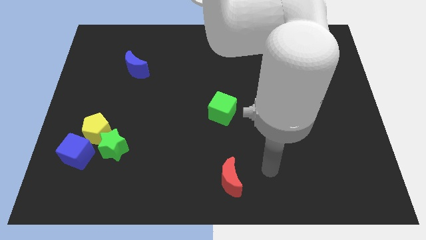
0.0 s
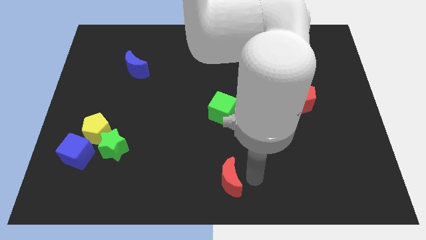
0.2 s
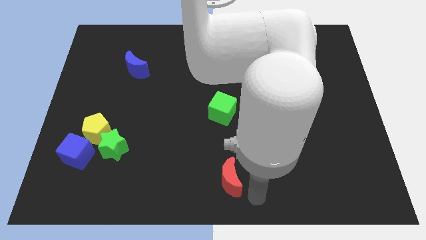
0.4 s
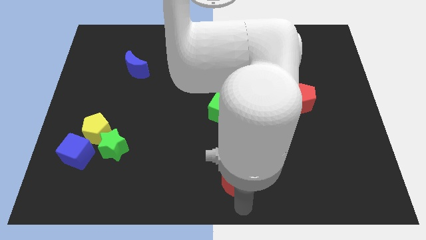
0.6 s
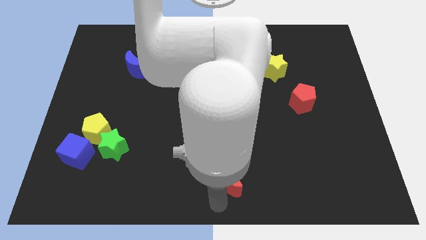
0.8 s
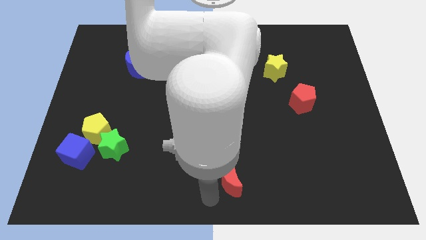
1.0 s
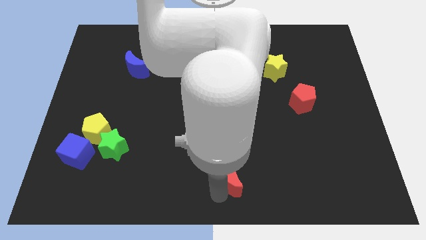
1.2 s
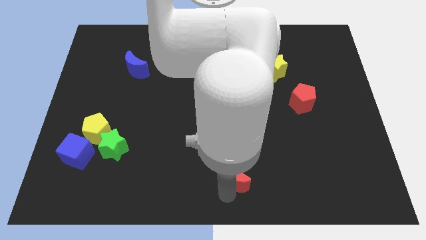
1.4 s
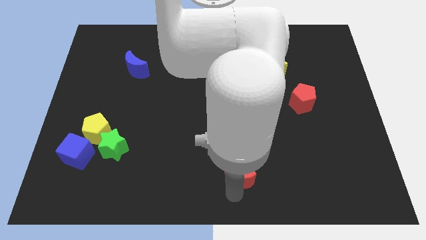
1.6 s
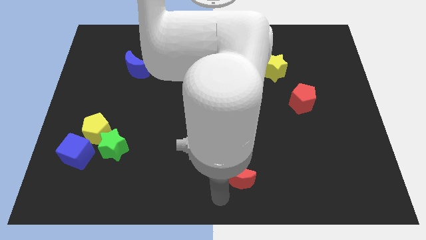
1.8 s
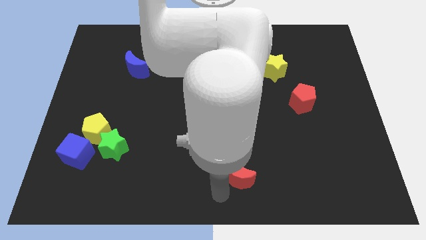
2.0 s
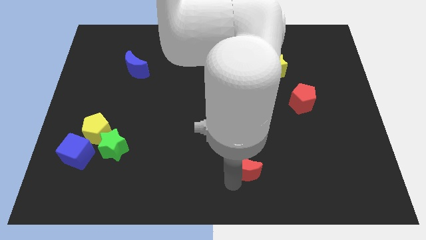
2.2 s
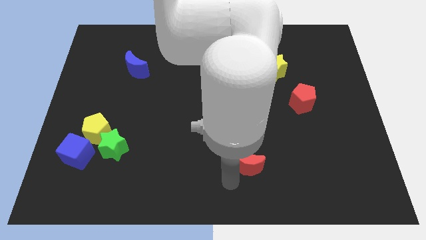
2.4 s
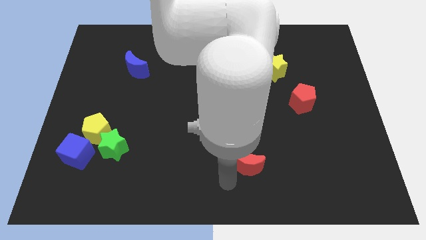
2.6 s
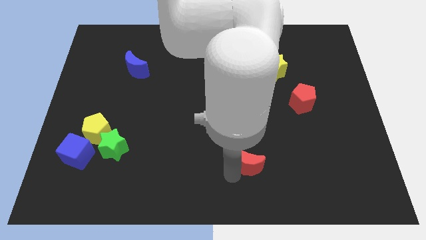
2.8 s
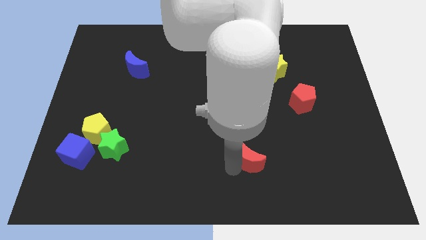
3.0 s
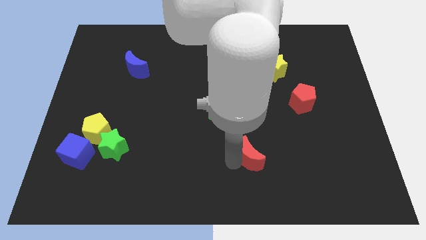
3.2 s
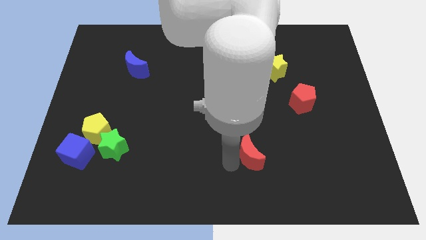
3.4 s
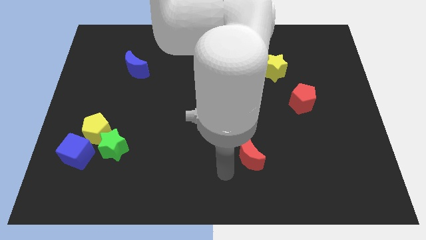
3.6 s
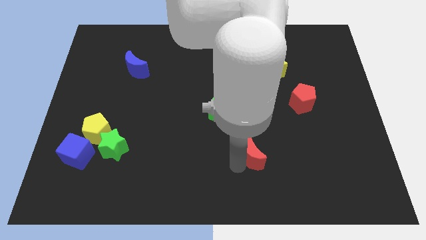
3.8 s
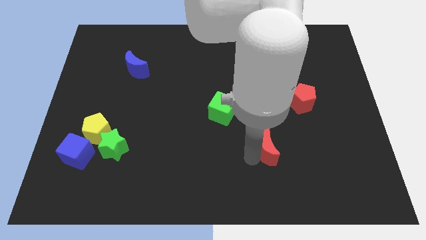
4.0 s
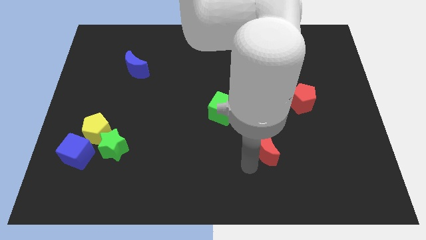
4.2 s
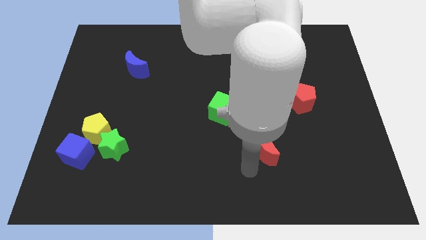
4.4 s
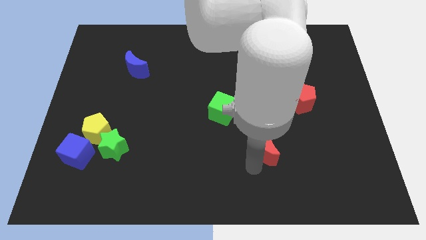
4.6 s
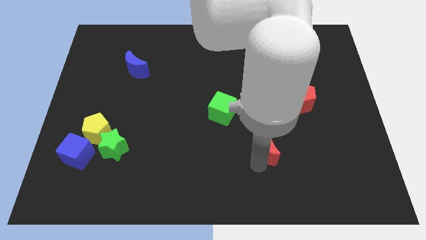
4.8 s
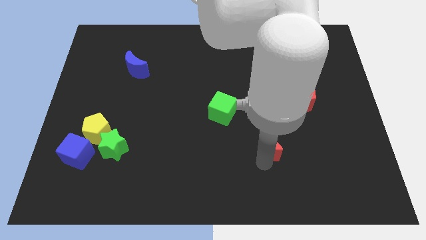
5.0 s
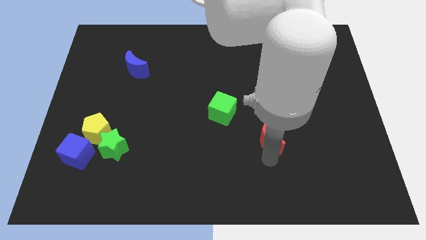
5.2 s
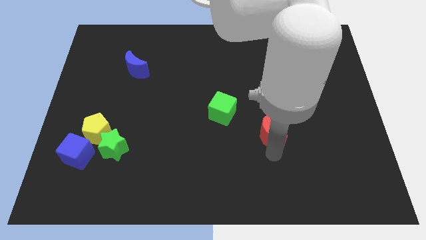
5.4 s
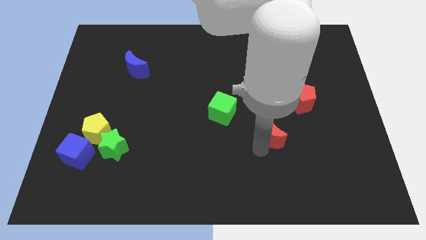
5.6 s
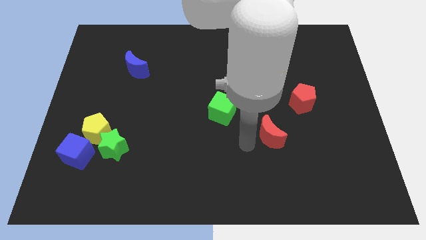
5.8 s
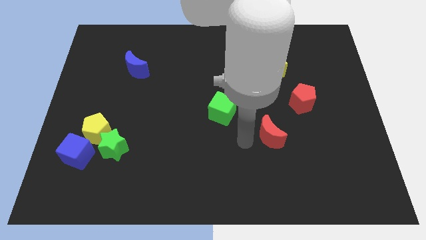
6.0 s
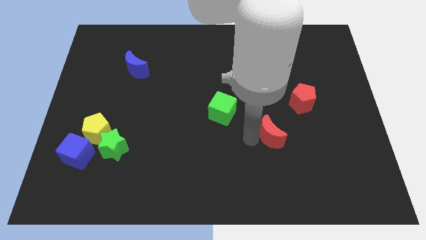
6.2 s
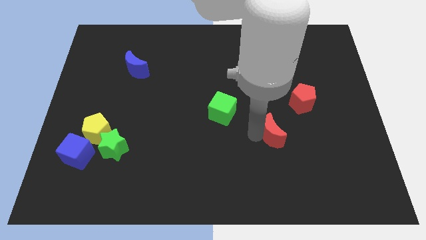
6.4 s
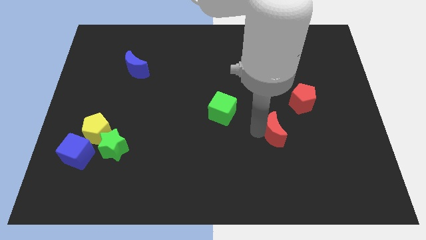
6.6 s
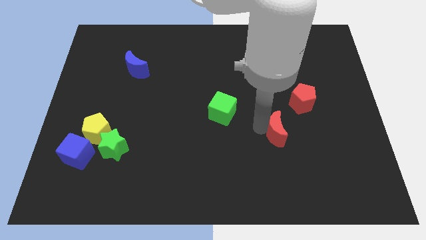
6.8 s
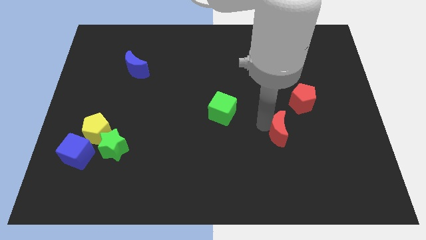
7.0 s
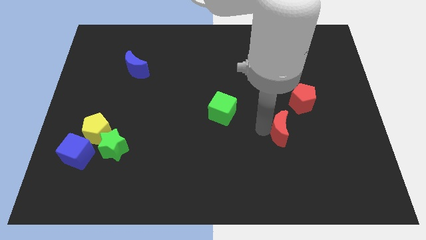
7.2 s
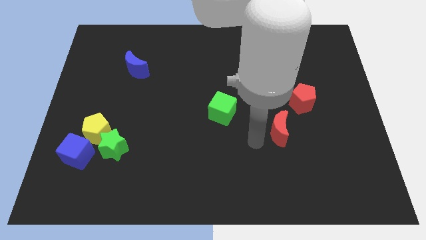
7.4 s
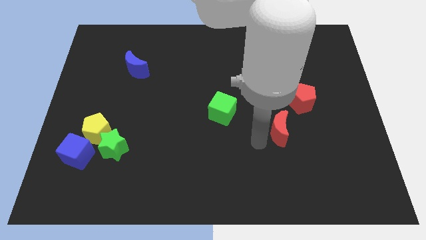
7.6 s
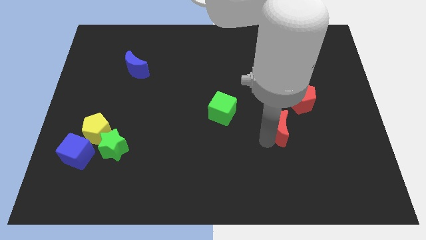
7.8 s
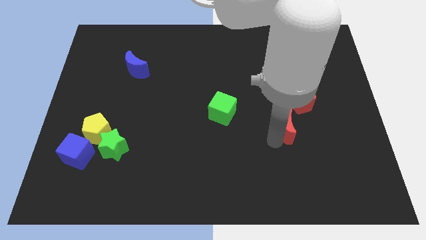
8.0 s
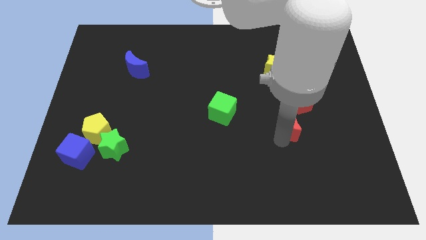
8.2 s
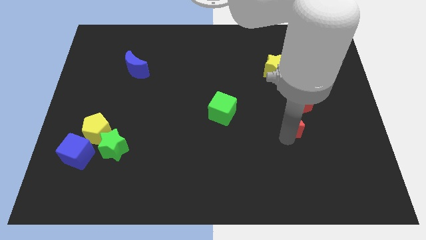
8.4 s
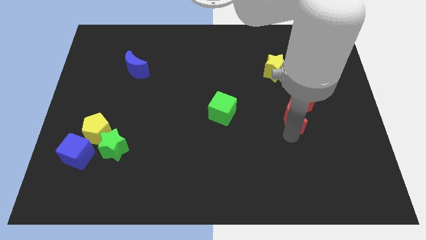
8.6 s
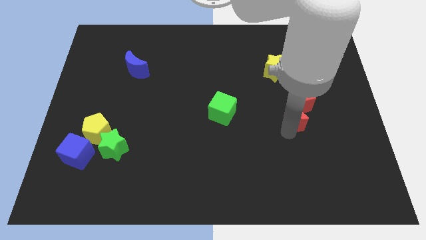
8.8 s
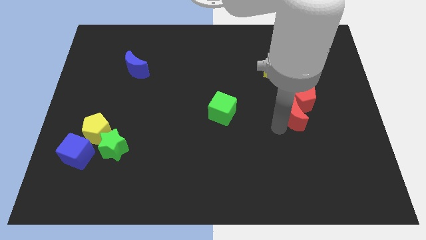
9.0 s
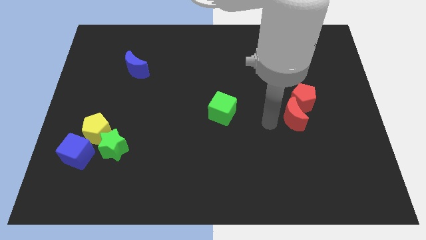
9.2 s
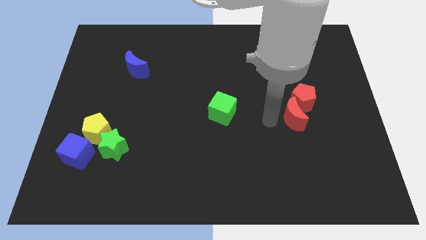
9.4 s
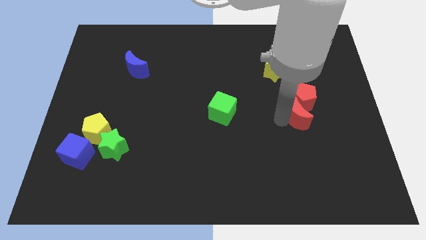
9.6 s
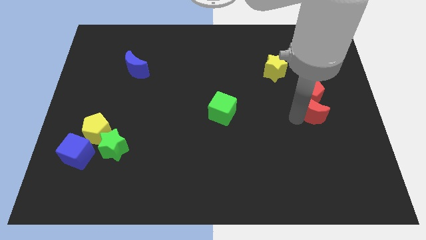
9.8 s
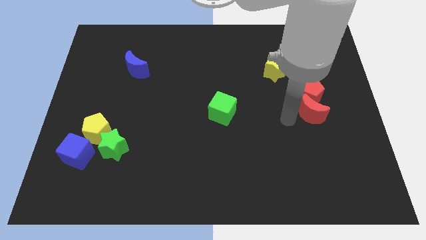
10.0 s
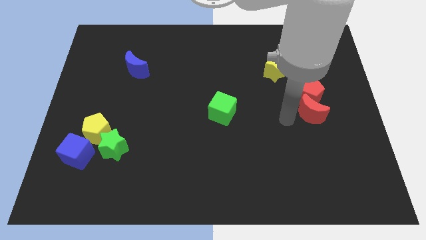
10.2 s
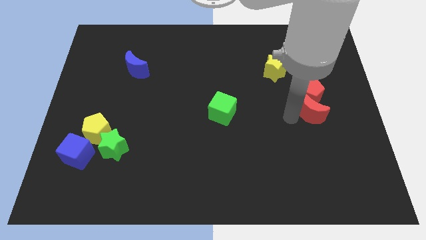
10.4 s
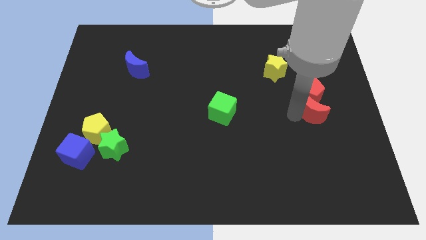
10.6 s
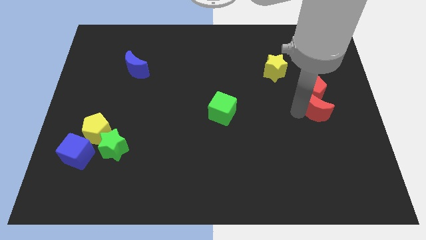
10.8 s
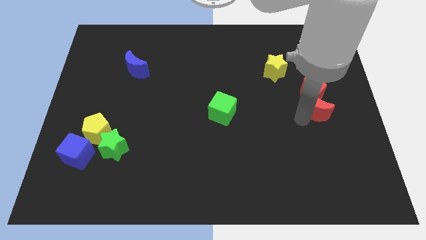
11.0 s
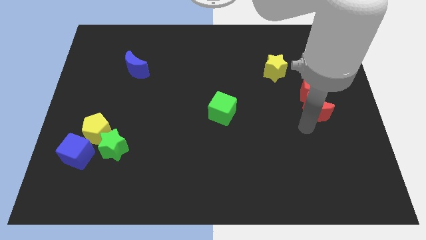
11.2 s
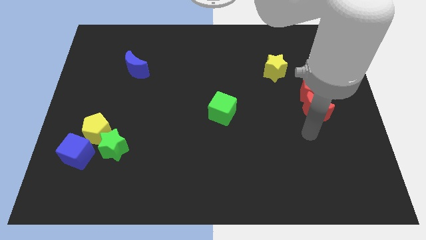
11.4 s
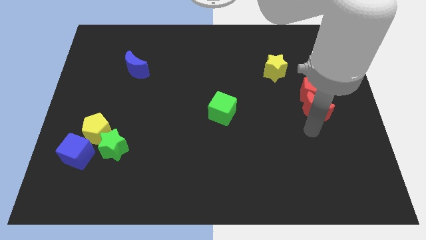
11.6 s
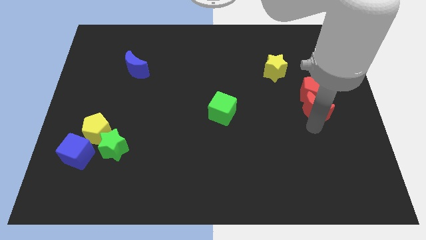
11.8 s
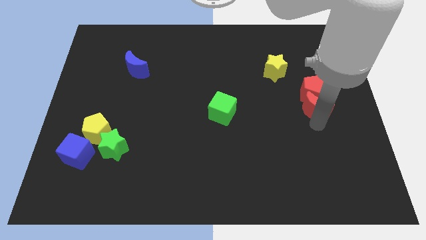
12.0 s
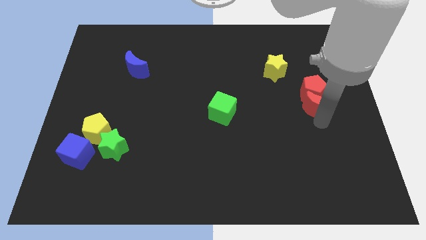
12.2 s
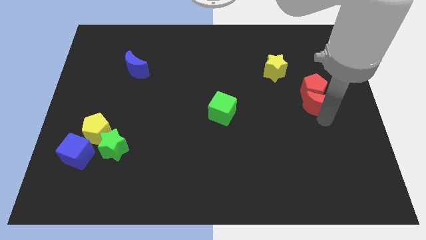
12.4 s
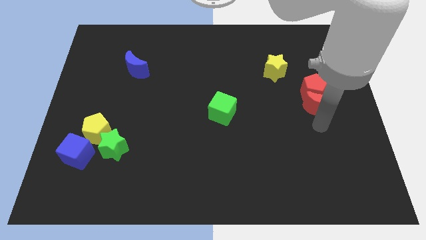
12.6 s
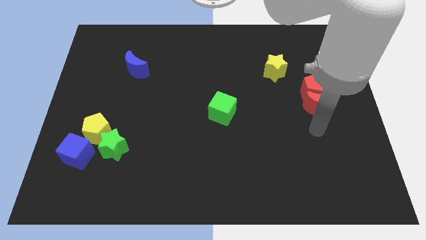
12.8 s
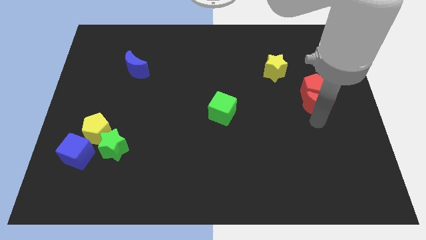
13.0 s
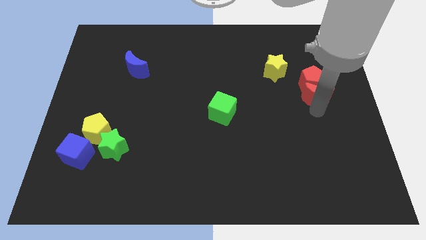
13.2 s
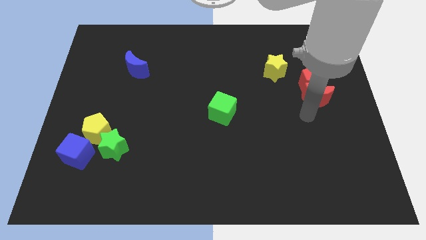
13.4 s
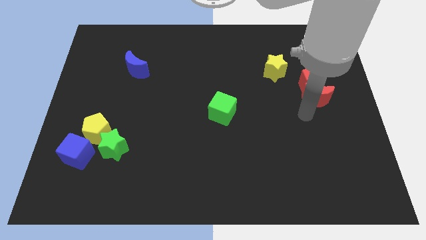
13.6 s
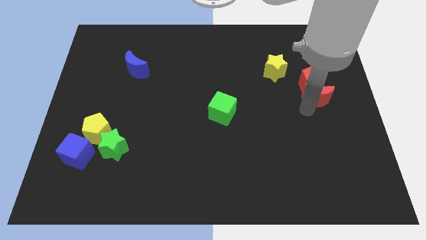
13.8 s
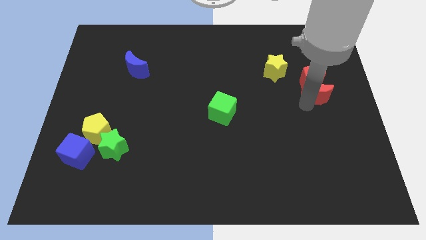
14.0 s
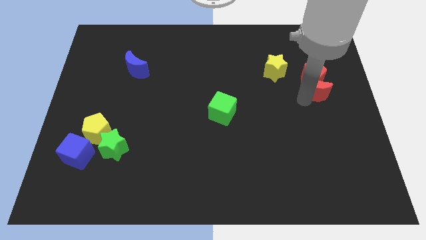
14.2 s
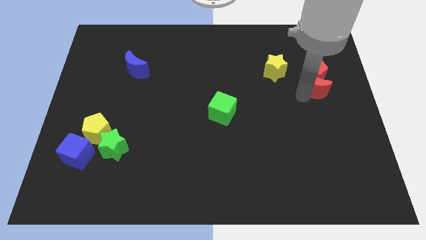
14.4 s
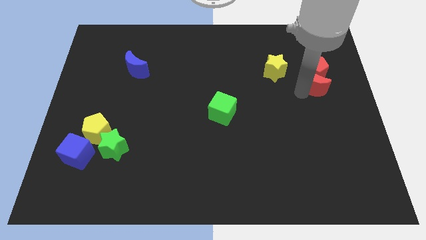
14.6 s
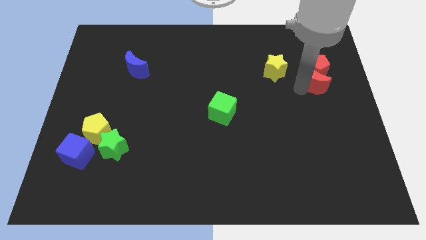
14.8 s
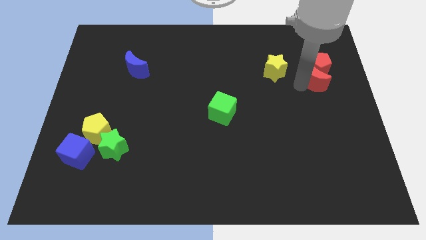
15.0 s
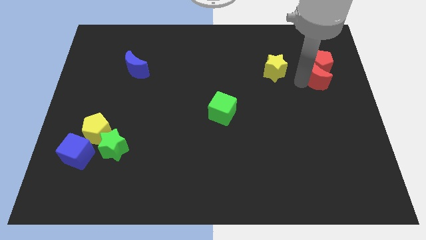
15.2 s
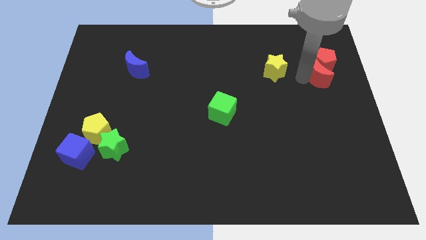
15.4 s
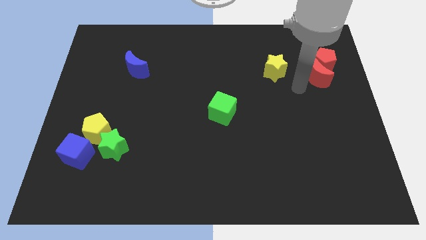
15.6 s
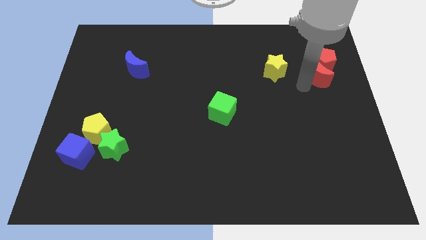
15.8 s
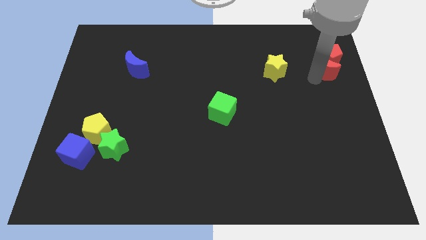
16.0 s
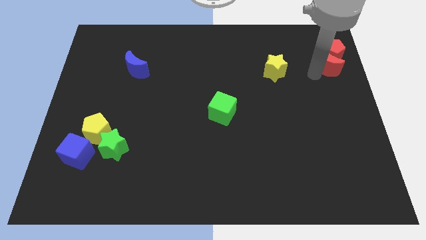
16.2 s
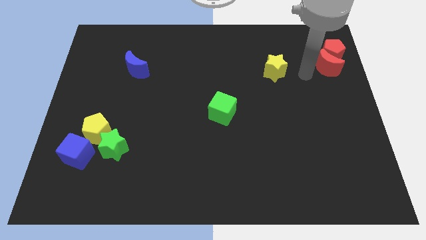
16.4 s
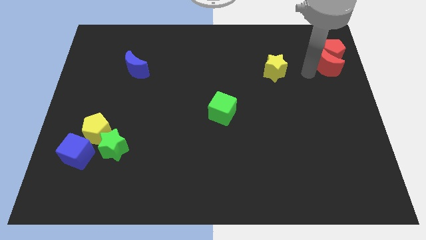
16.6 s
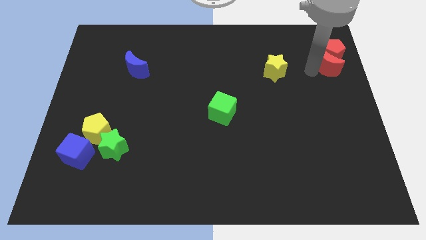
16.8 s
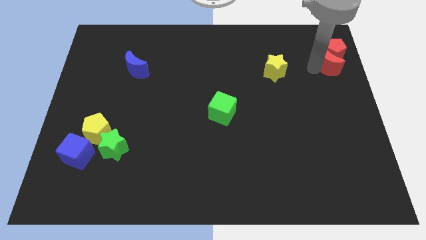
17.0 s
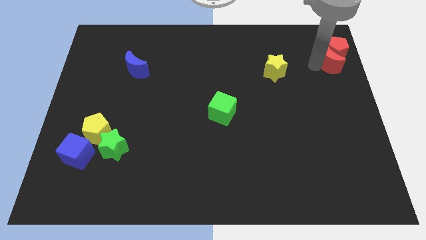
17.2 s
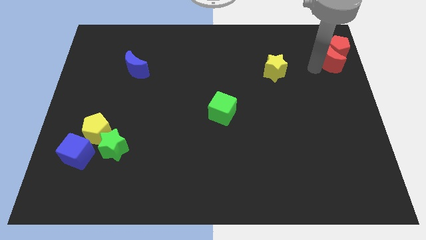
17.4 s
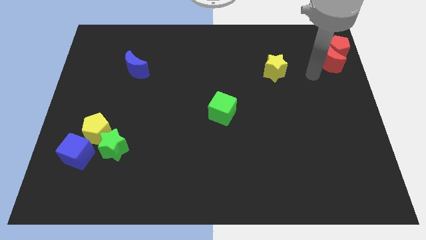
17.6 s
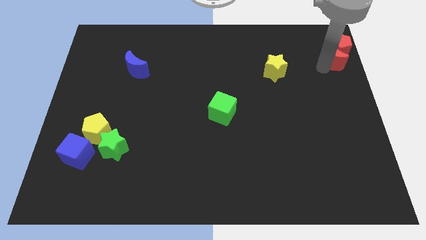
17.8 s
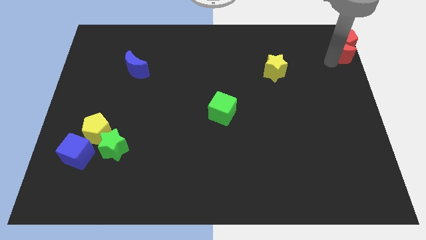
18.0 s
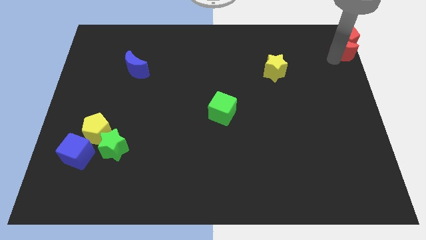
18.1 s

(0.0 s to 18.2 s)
push the red moon to the top right corner
